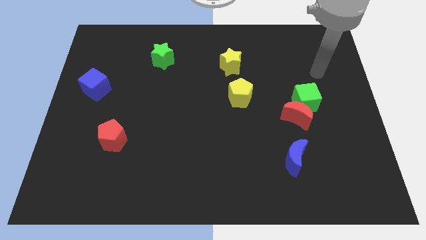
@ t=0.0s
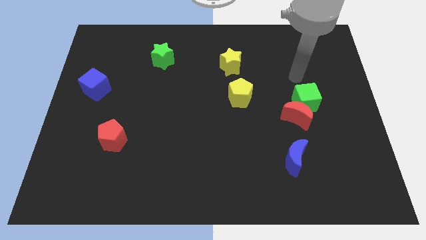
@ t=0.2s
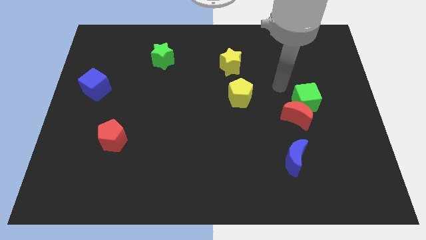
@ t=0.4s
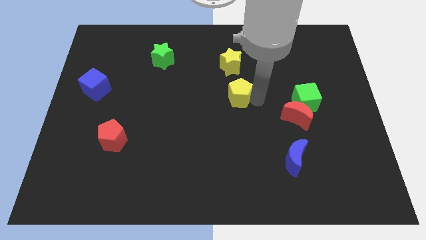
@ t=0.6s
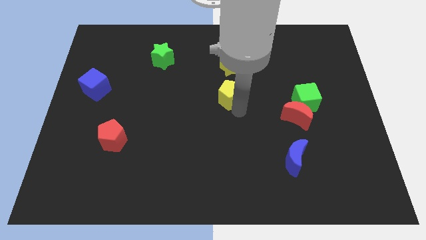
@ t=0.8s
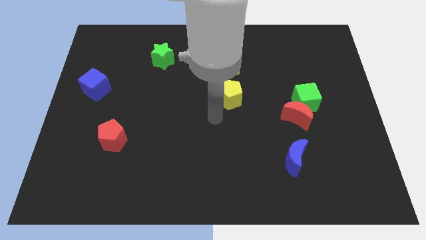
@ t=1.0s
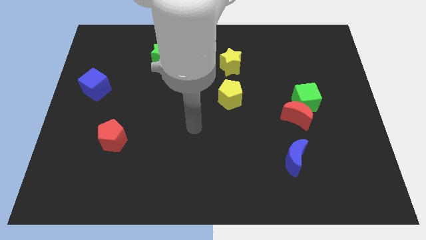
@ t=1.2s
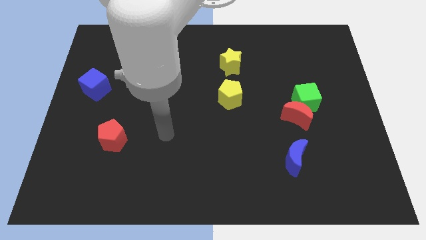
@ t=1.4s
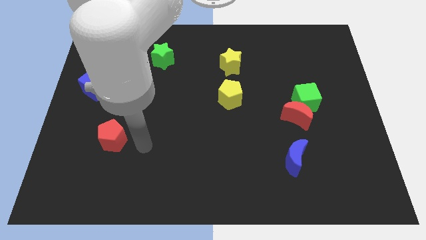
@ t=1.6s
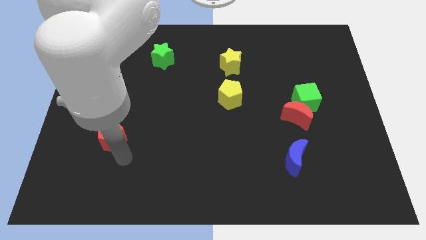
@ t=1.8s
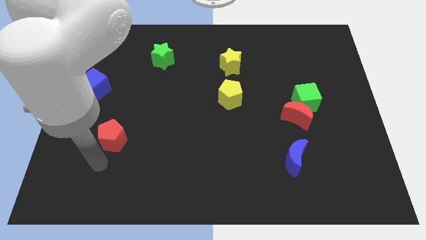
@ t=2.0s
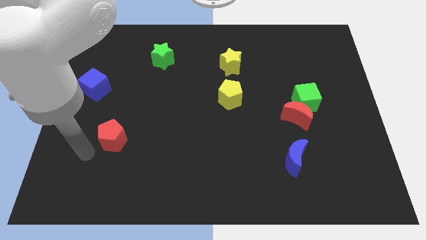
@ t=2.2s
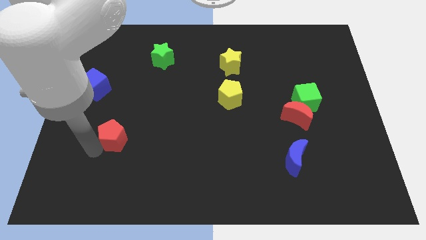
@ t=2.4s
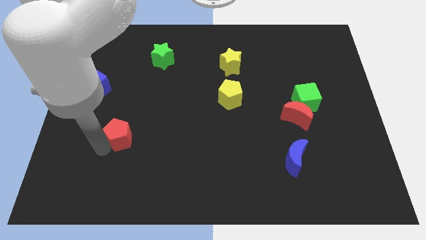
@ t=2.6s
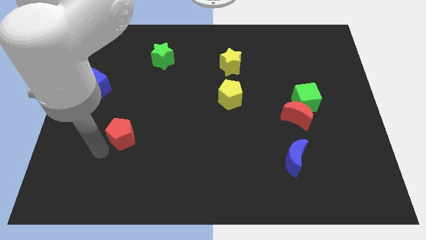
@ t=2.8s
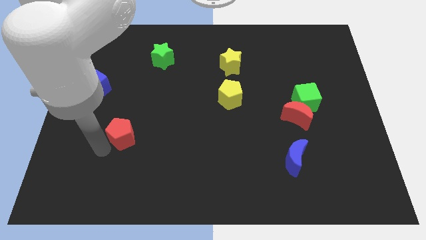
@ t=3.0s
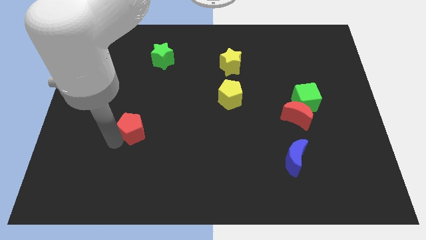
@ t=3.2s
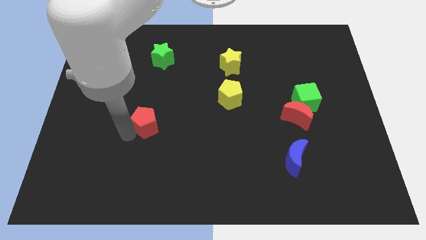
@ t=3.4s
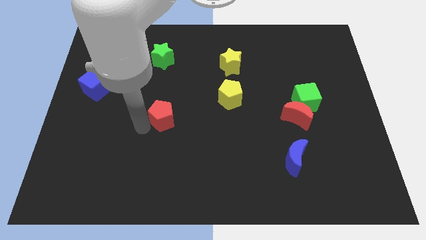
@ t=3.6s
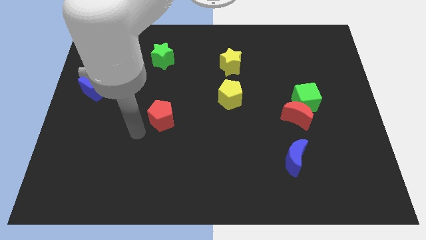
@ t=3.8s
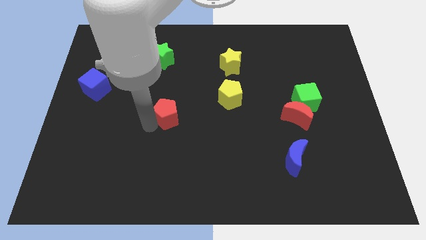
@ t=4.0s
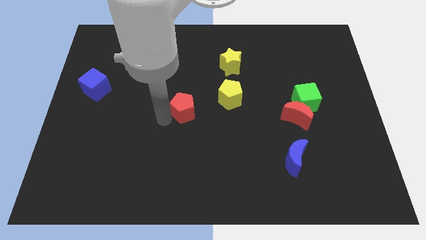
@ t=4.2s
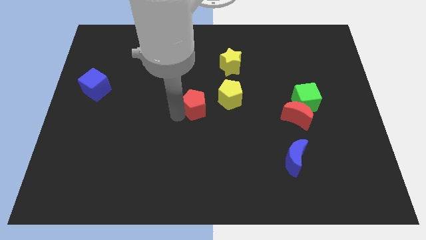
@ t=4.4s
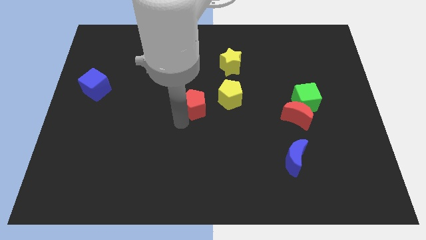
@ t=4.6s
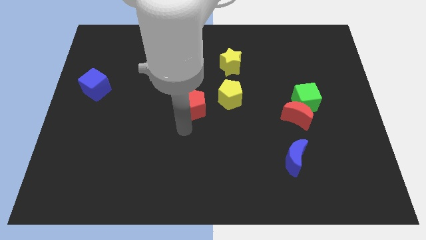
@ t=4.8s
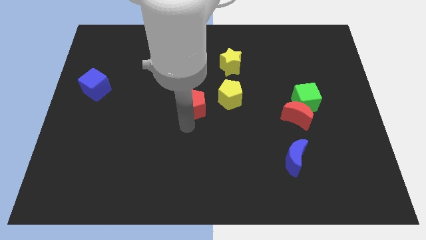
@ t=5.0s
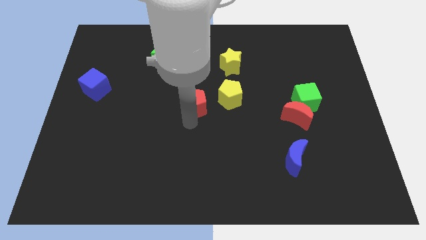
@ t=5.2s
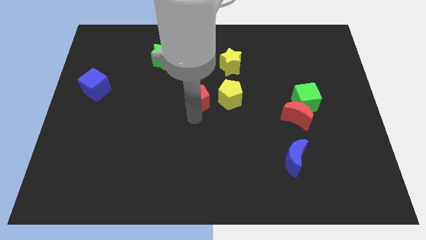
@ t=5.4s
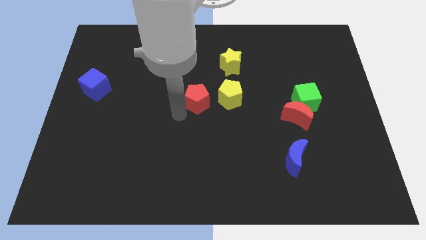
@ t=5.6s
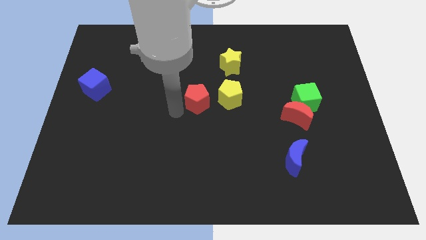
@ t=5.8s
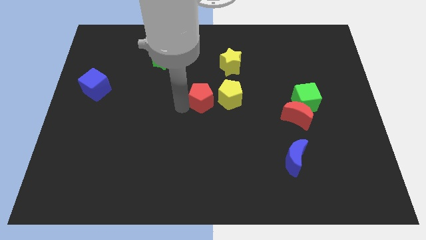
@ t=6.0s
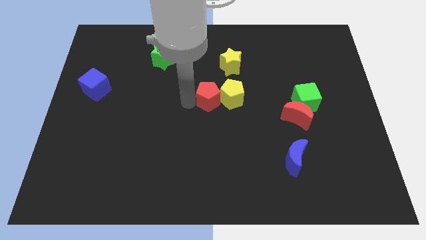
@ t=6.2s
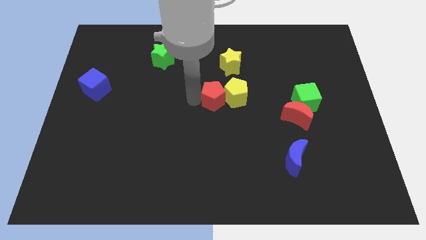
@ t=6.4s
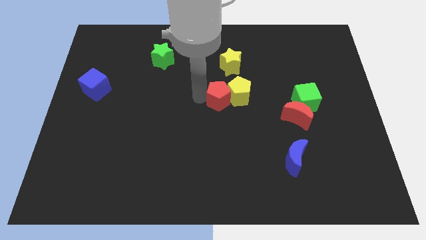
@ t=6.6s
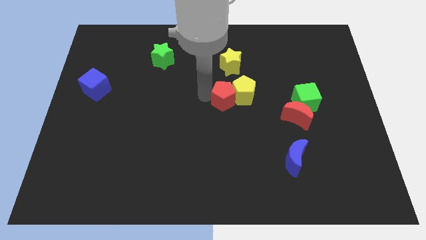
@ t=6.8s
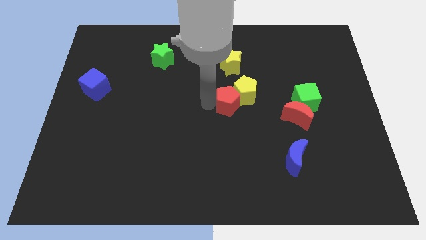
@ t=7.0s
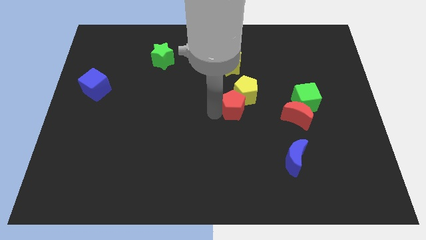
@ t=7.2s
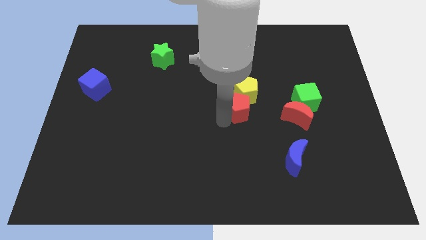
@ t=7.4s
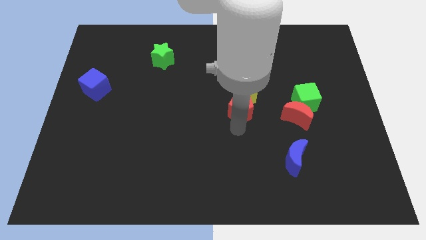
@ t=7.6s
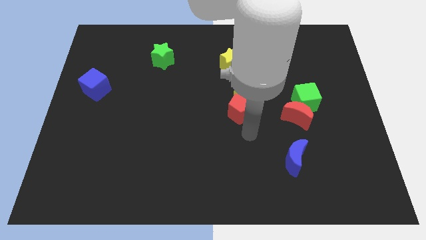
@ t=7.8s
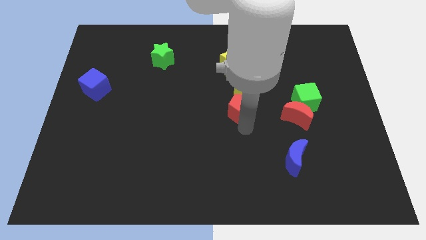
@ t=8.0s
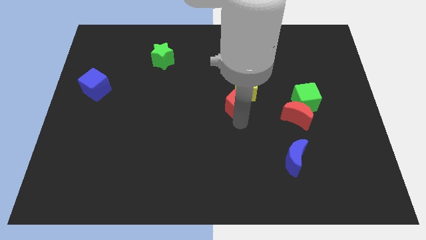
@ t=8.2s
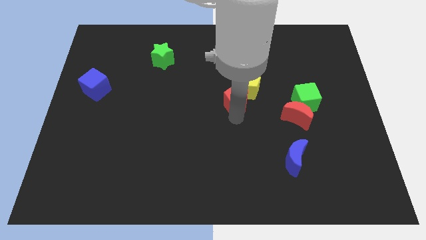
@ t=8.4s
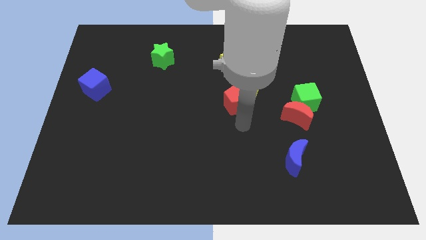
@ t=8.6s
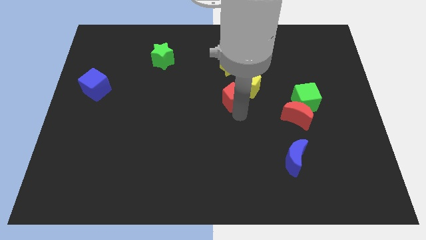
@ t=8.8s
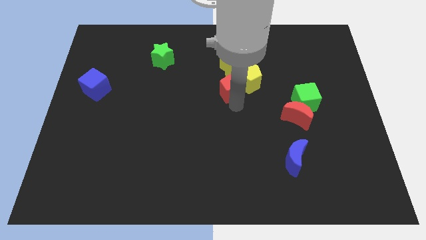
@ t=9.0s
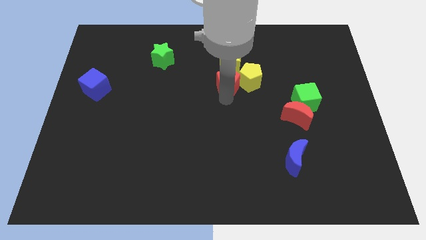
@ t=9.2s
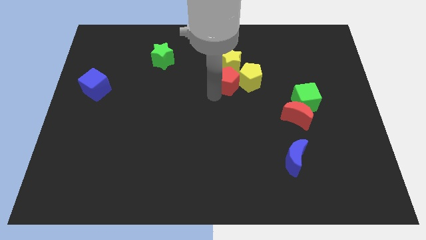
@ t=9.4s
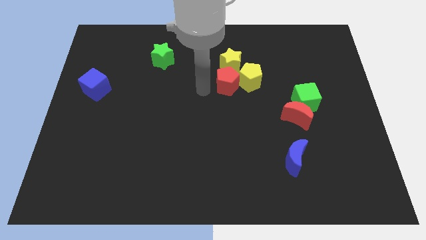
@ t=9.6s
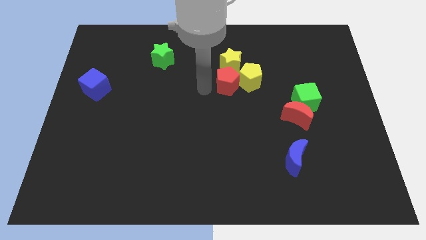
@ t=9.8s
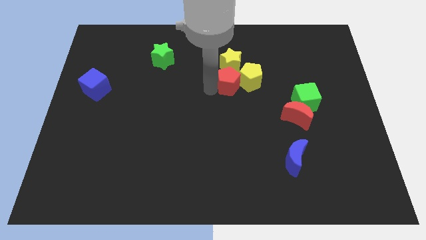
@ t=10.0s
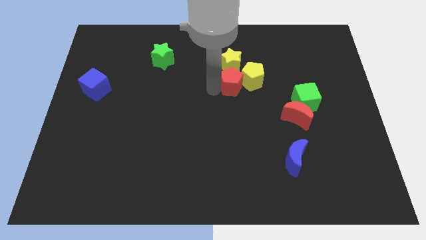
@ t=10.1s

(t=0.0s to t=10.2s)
put the red pentagon to the bottom right side of the yellow star

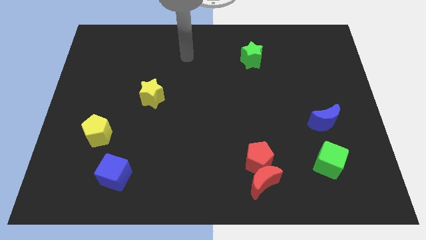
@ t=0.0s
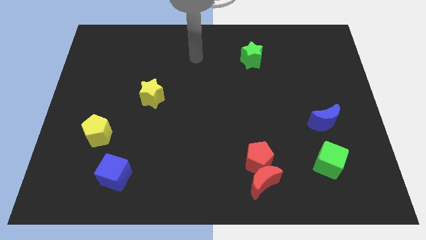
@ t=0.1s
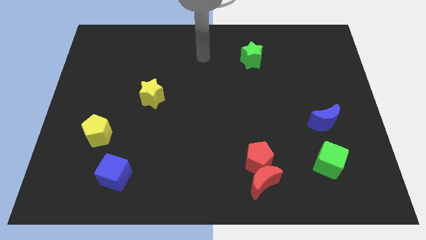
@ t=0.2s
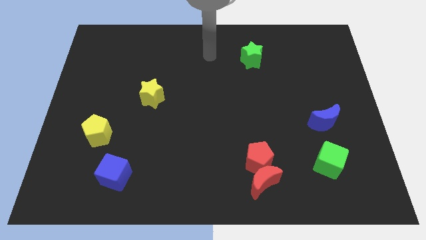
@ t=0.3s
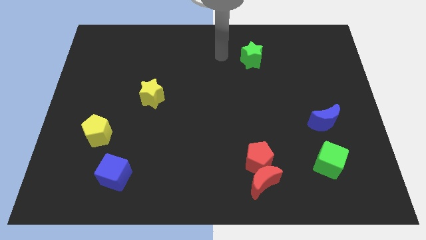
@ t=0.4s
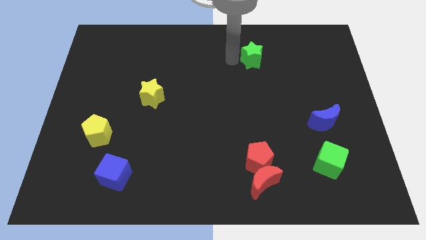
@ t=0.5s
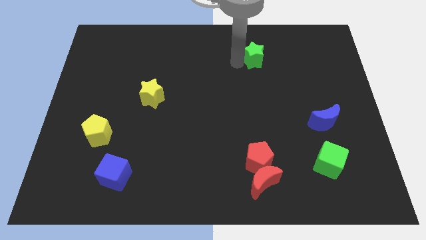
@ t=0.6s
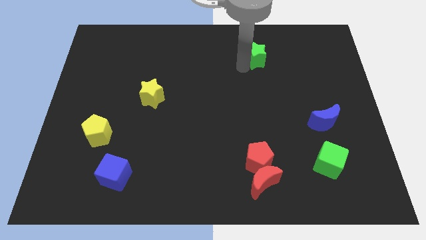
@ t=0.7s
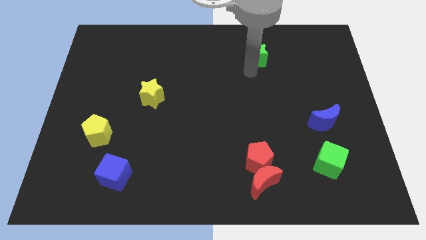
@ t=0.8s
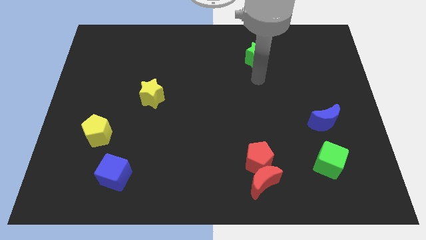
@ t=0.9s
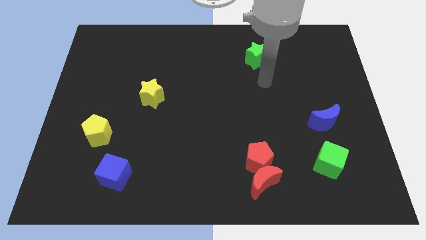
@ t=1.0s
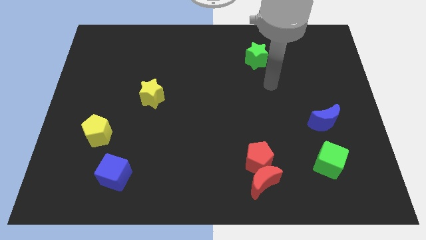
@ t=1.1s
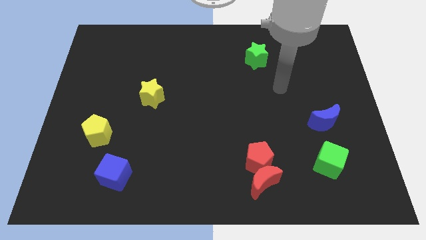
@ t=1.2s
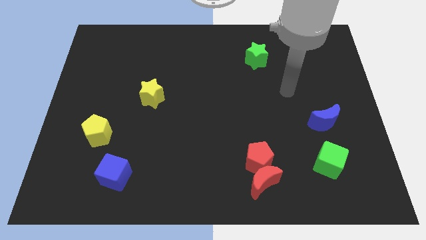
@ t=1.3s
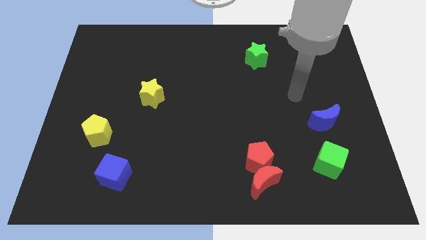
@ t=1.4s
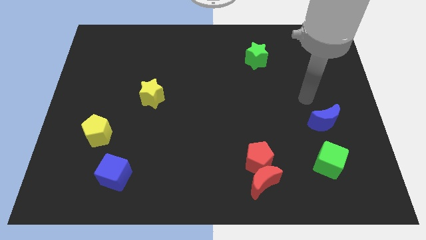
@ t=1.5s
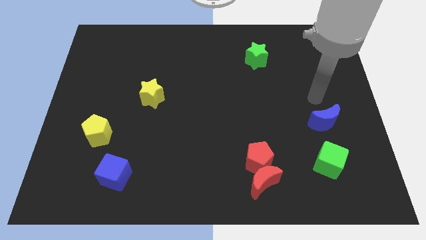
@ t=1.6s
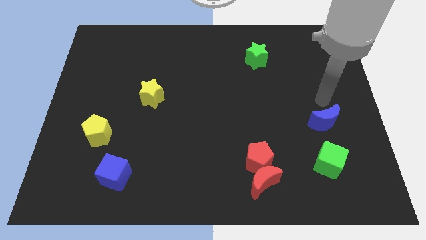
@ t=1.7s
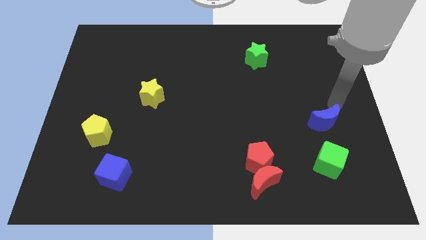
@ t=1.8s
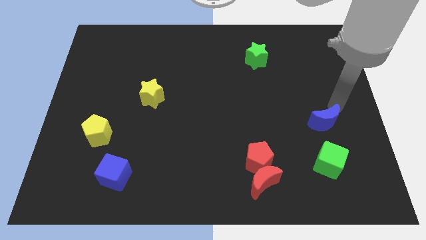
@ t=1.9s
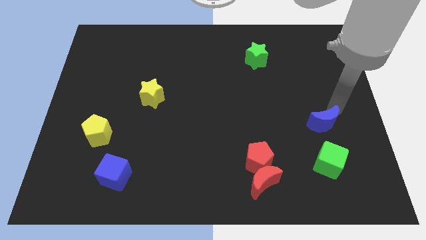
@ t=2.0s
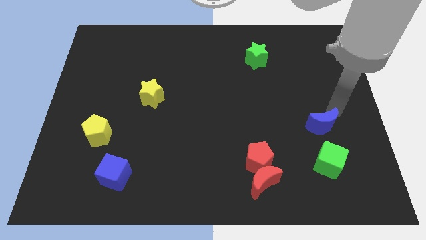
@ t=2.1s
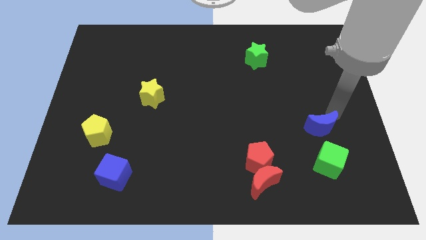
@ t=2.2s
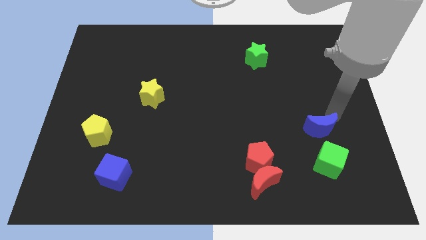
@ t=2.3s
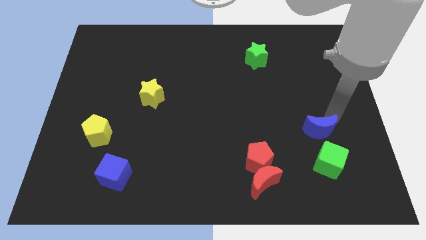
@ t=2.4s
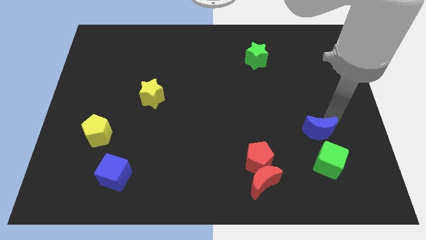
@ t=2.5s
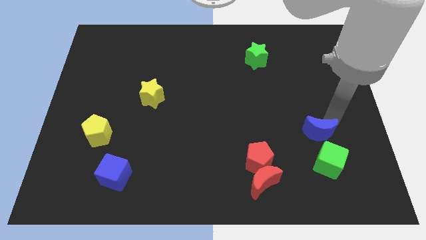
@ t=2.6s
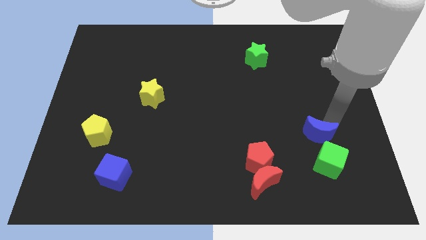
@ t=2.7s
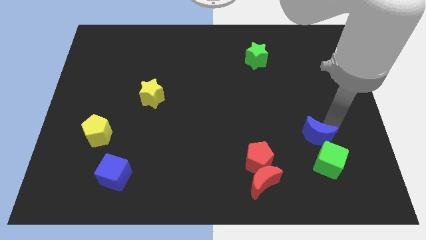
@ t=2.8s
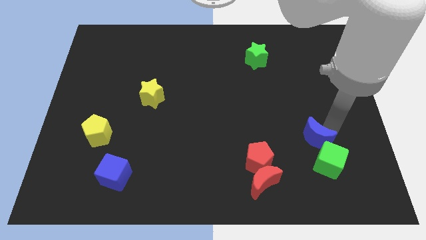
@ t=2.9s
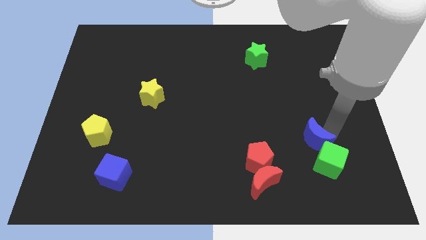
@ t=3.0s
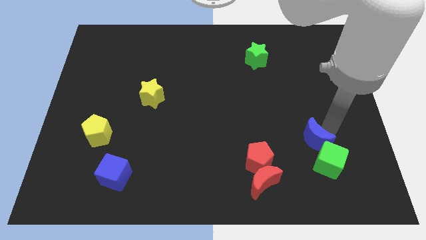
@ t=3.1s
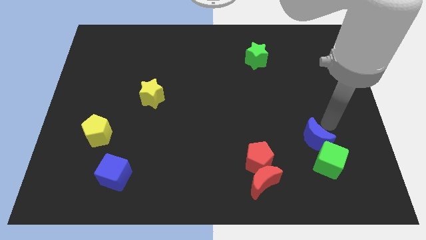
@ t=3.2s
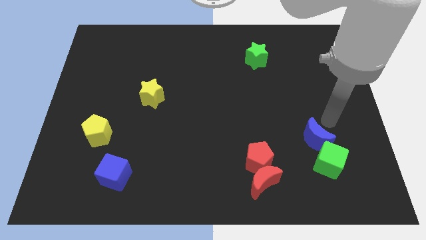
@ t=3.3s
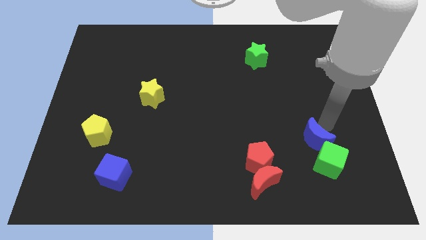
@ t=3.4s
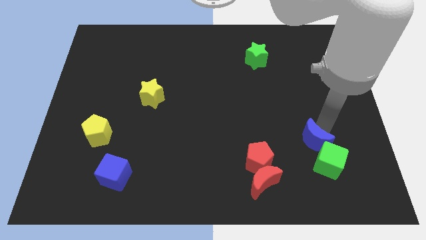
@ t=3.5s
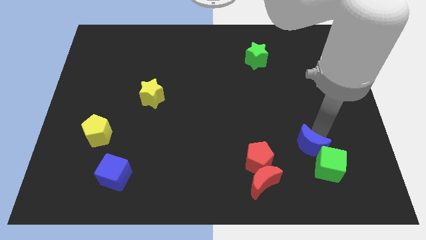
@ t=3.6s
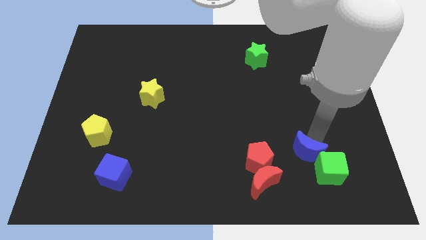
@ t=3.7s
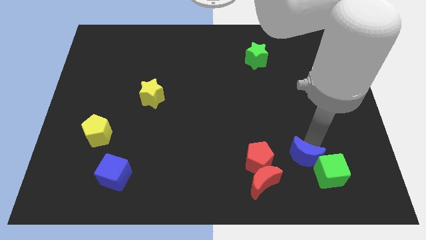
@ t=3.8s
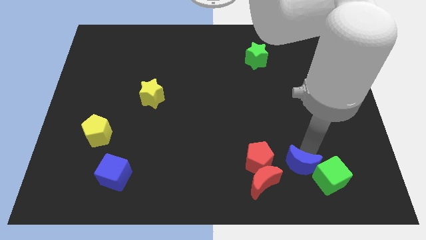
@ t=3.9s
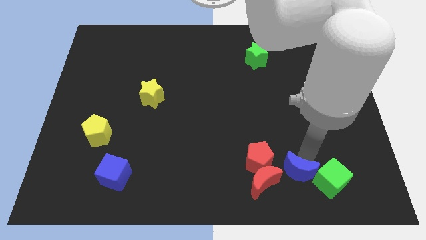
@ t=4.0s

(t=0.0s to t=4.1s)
slide the blue moon diagonally down and to the right of the red pentagon
